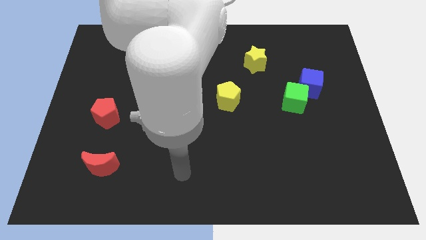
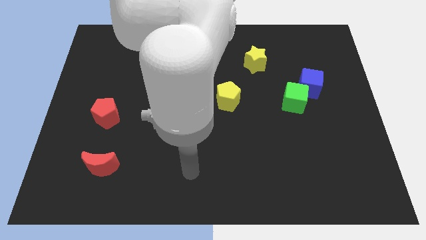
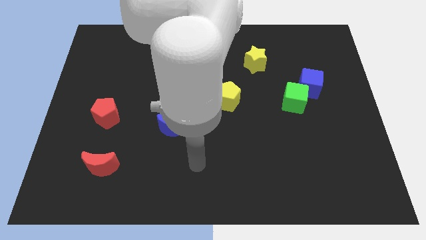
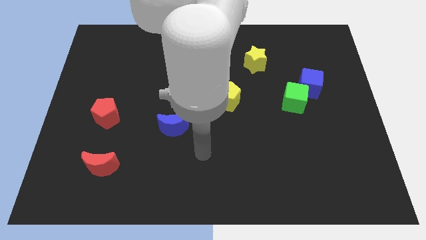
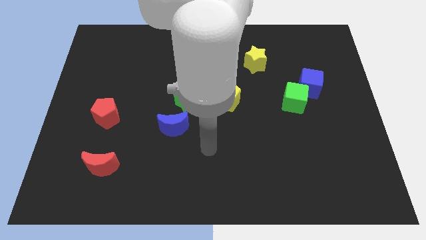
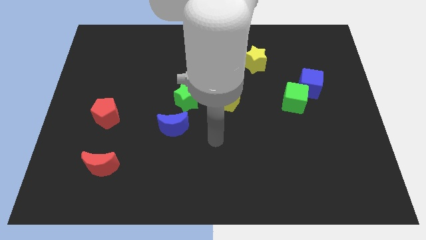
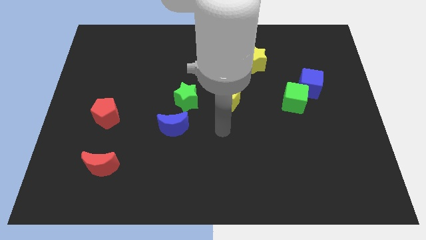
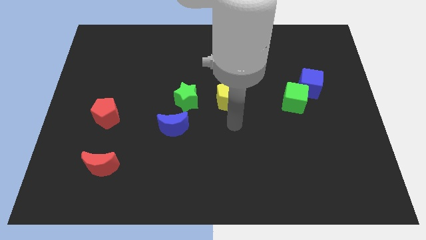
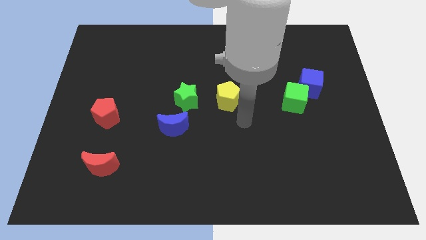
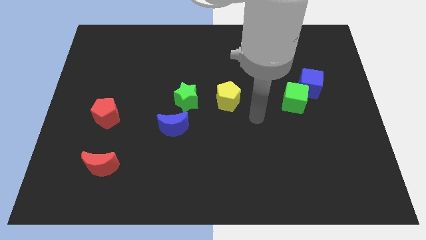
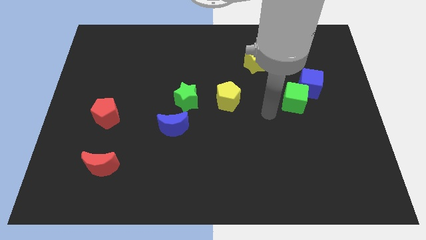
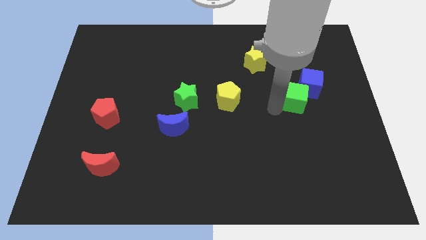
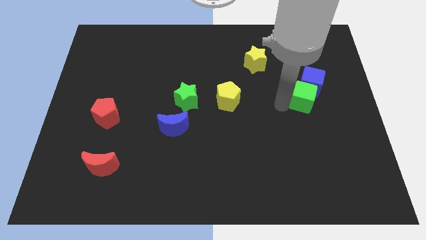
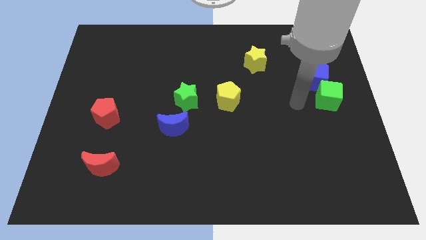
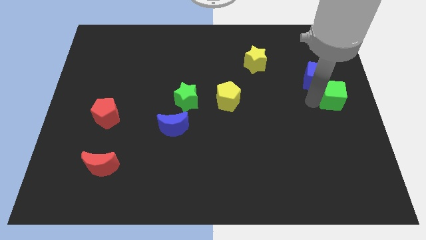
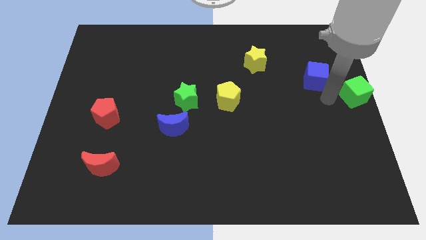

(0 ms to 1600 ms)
pull the blue cube apart from the green cube

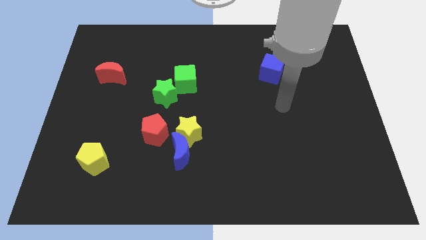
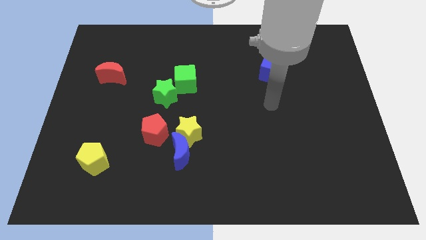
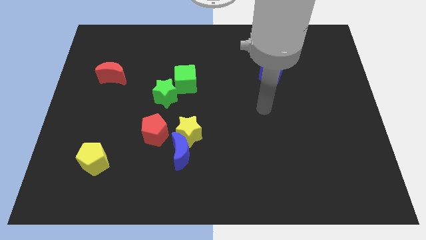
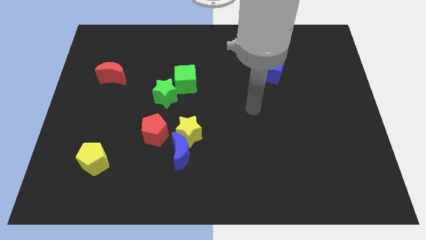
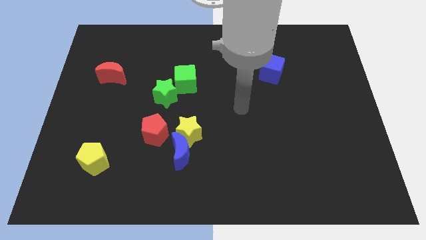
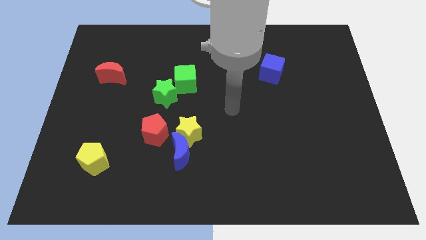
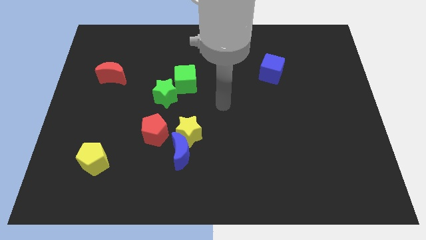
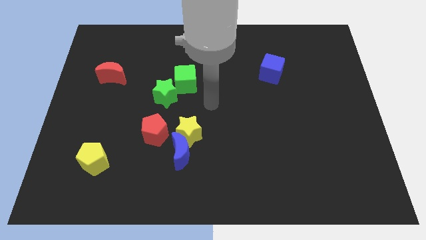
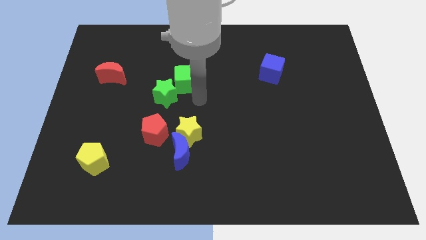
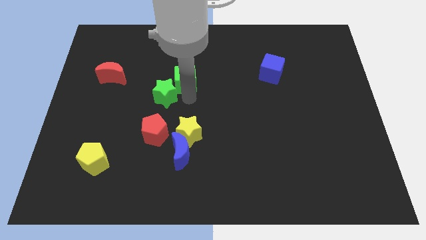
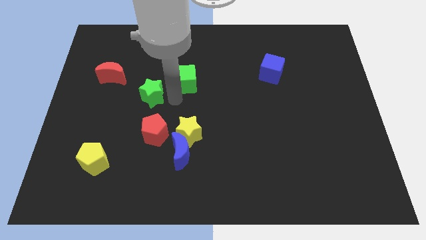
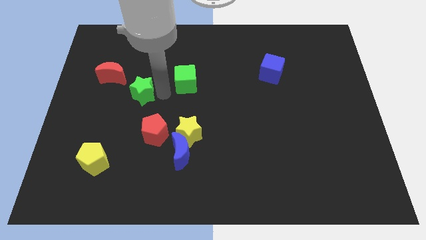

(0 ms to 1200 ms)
separate the green cube from the green star

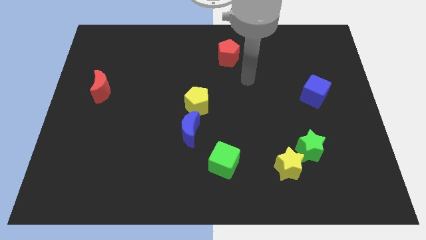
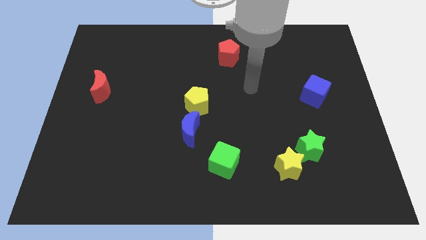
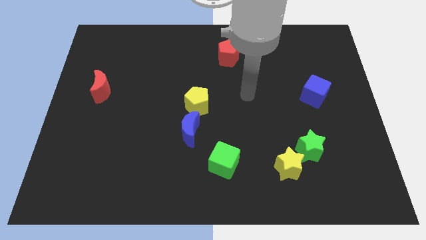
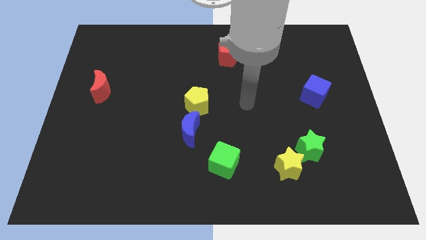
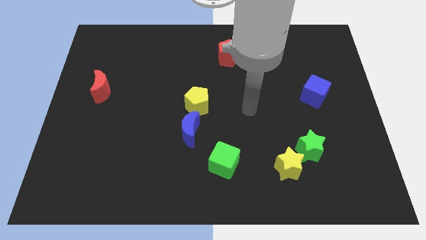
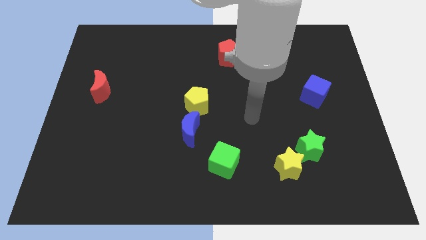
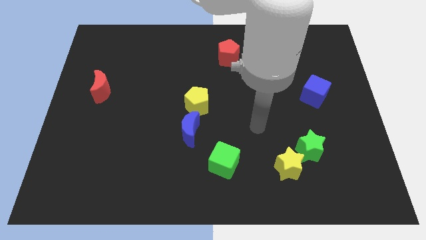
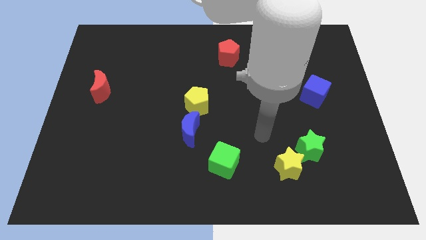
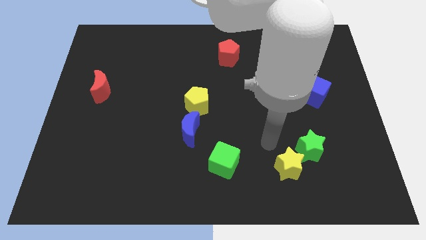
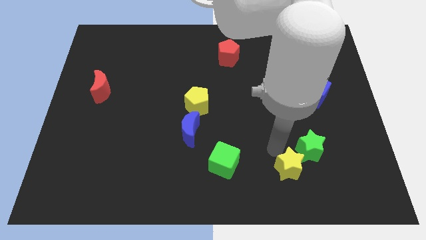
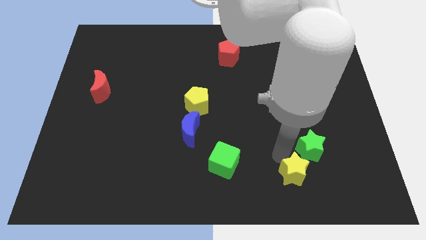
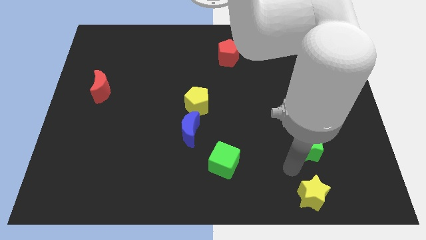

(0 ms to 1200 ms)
pull the green star apart from the yellow star

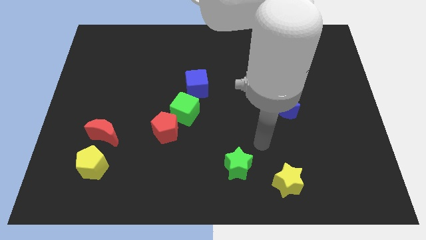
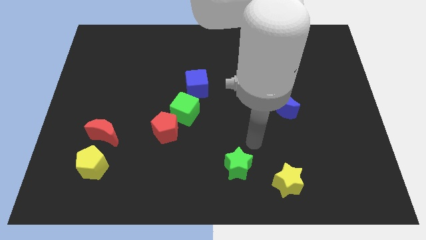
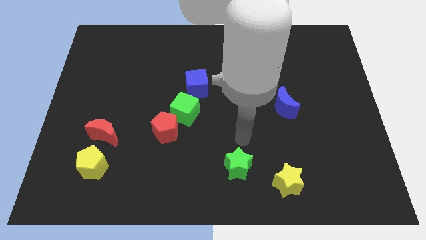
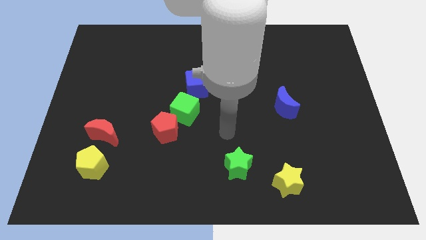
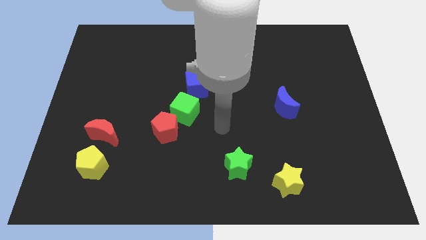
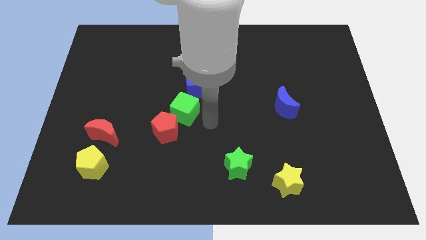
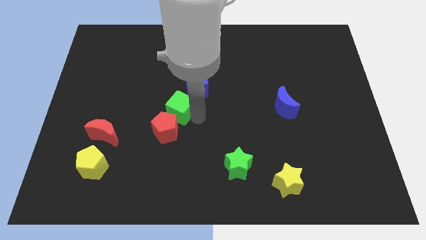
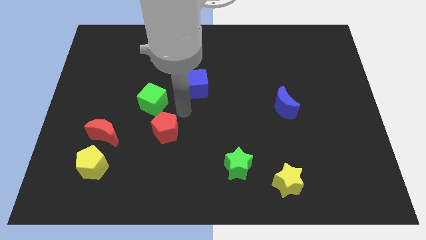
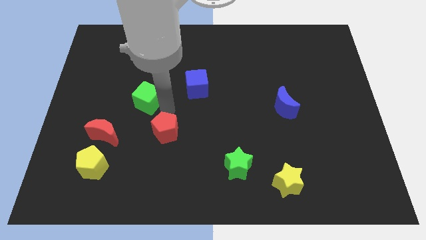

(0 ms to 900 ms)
separate the red pentagon from the green cube

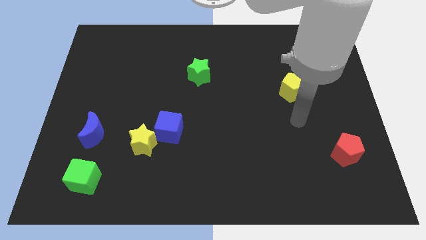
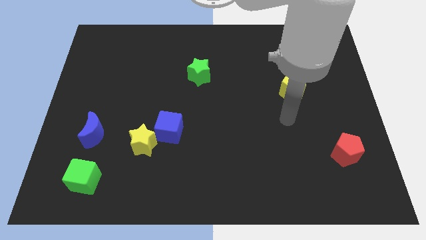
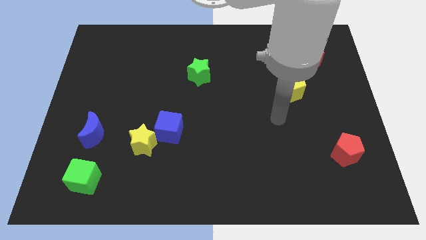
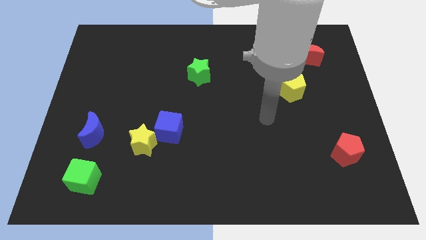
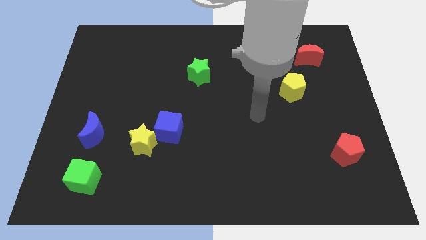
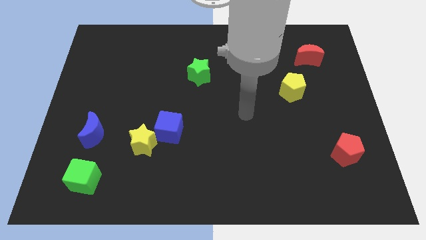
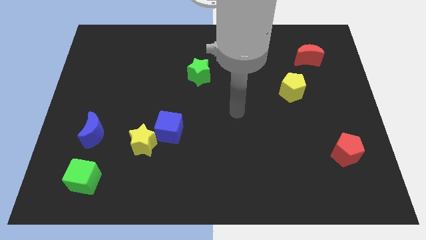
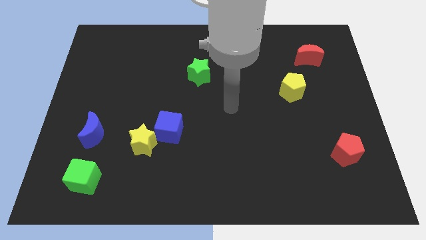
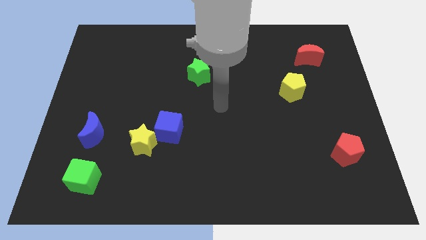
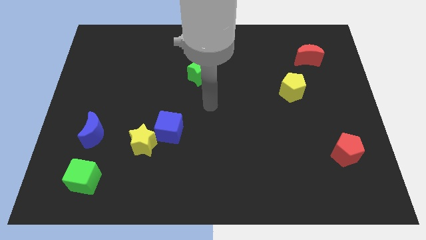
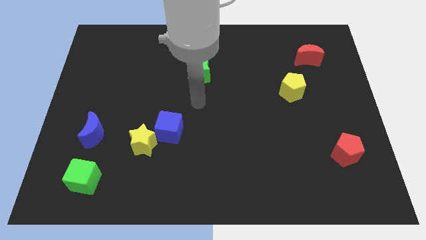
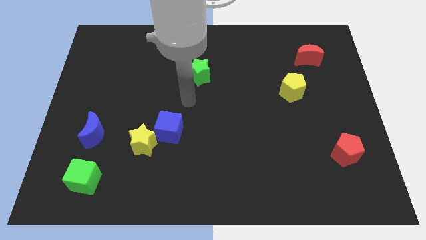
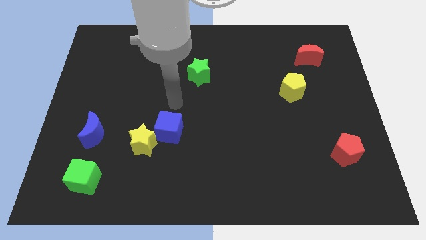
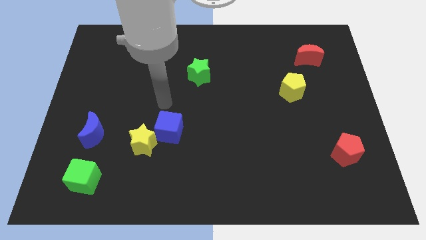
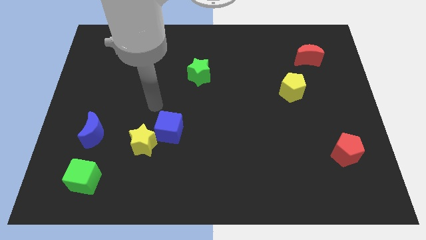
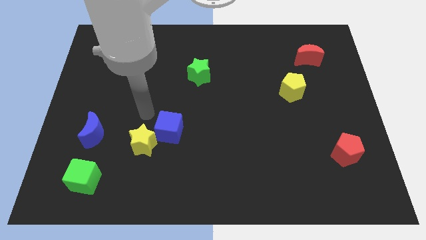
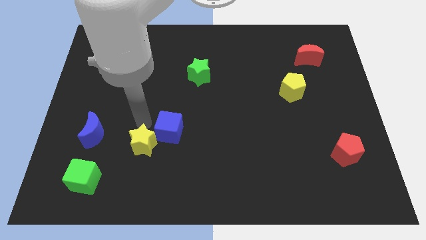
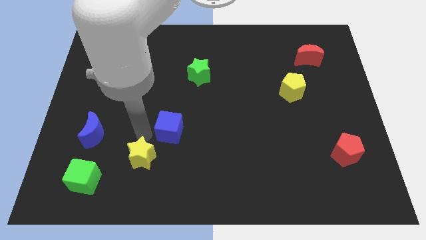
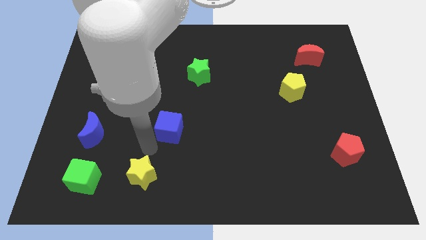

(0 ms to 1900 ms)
move the blue cube away from the yellow star

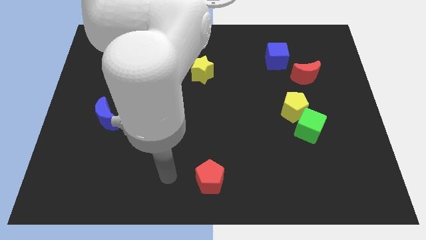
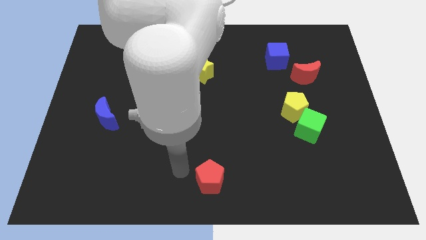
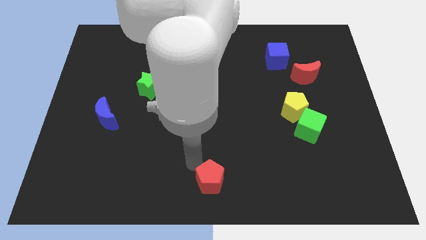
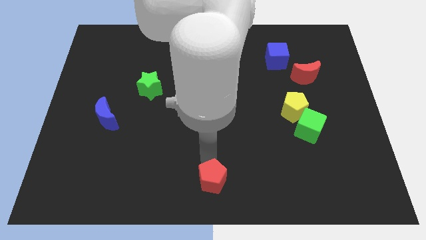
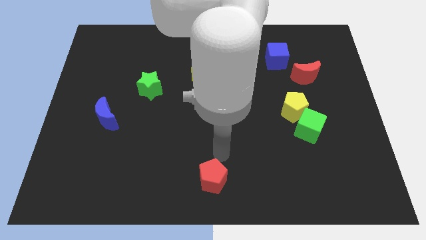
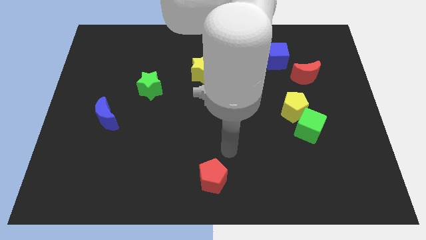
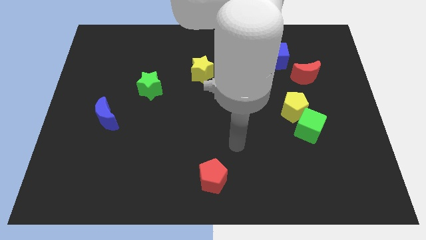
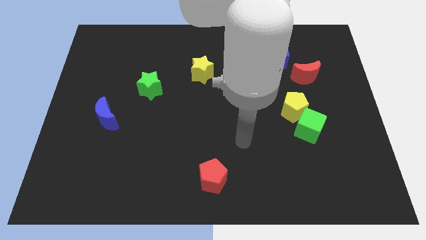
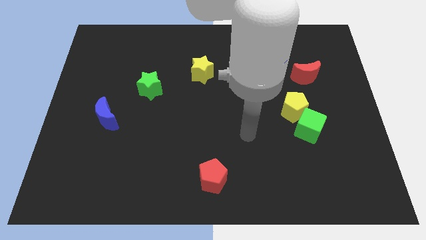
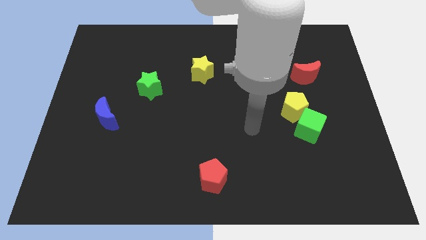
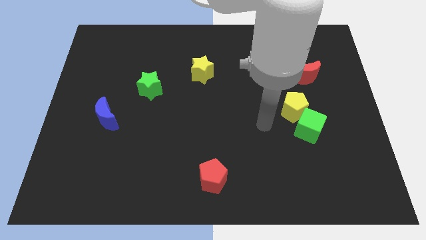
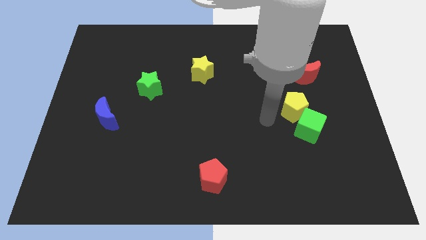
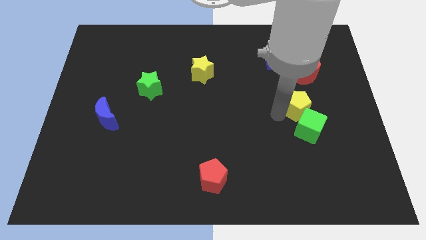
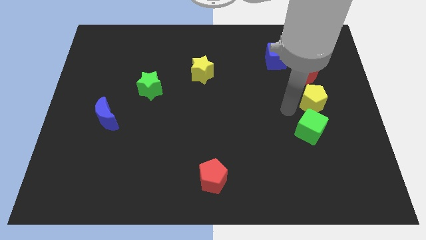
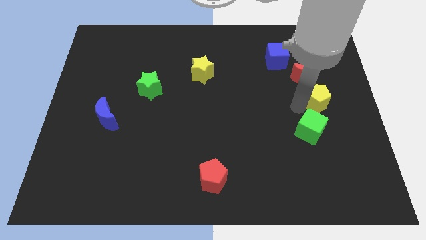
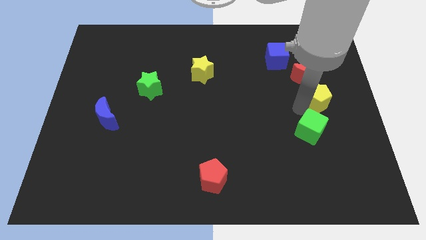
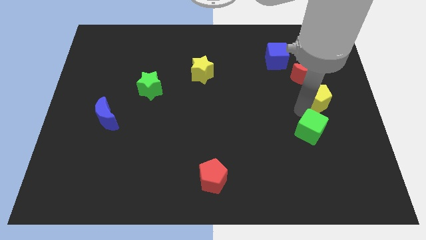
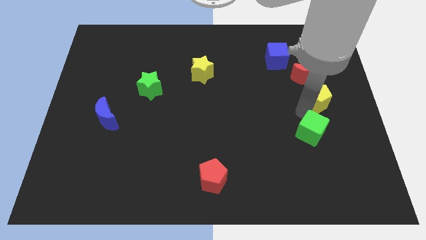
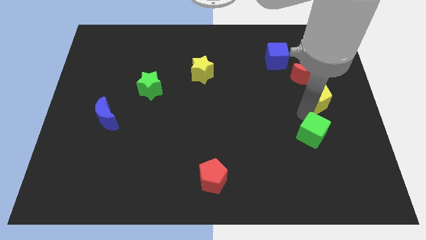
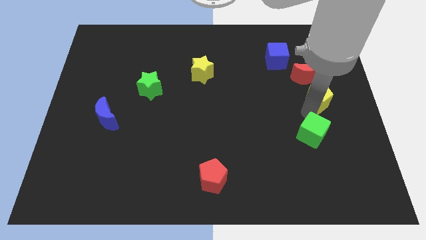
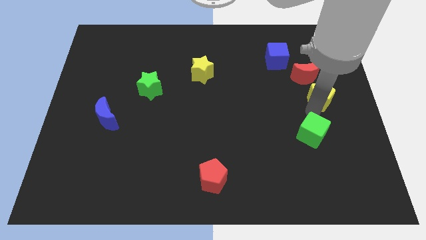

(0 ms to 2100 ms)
separate the green cube from the yellow pentagon

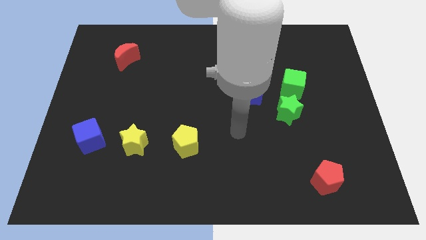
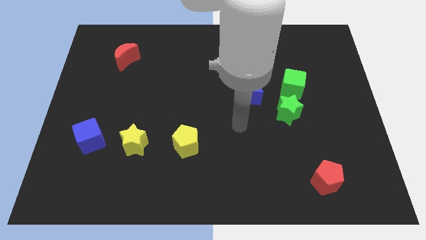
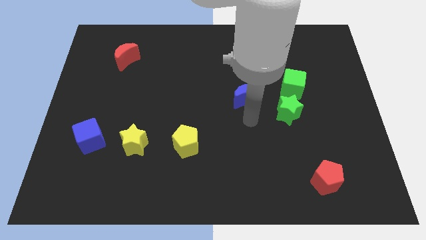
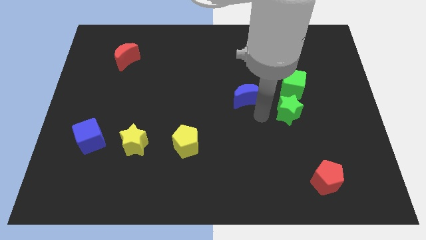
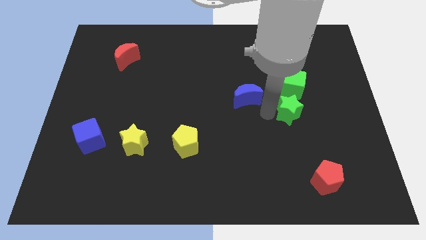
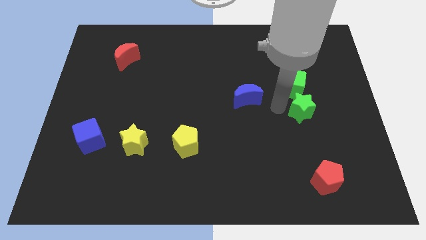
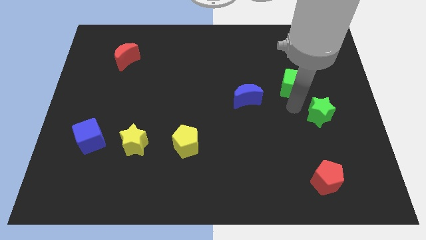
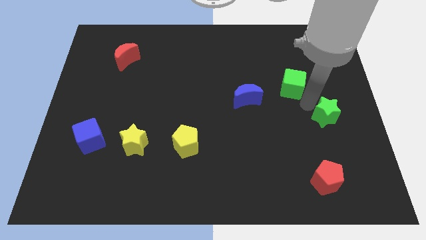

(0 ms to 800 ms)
move the green cube away from the green star
